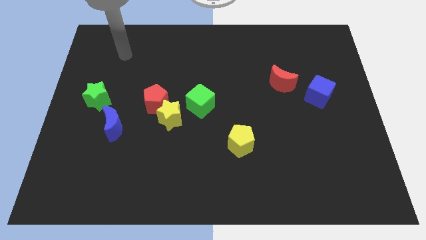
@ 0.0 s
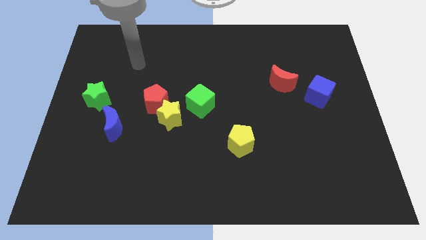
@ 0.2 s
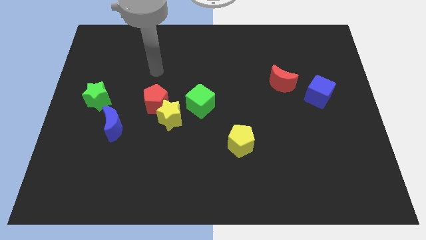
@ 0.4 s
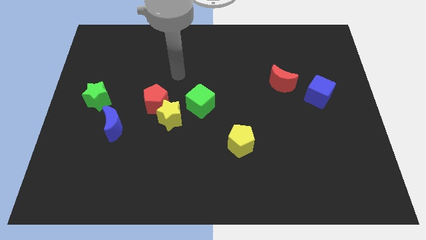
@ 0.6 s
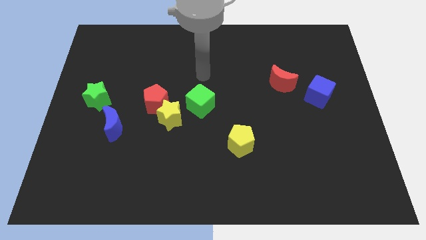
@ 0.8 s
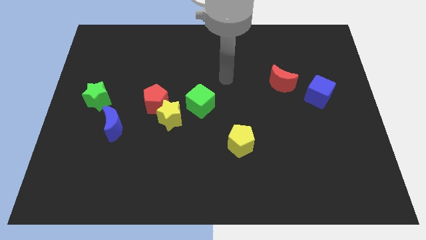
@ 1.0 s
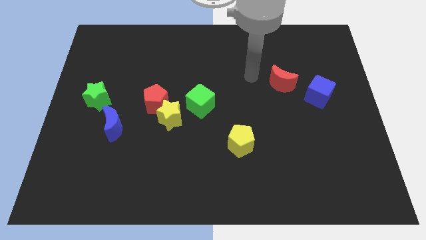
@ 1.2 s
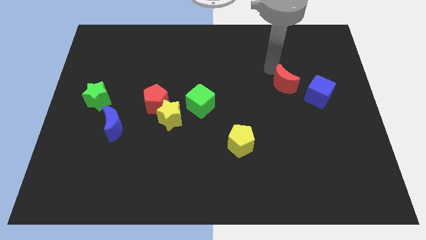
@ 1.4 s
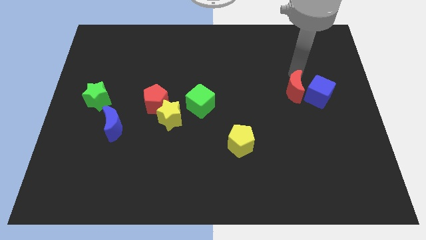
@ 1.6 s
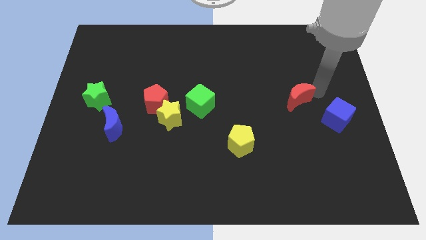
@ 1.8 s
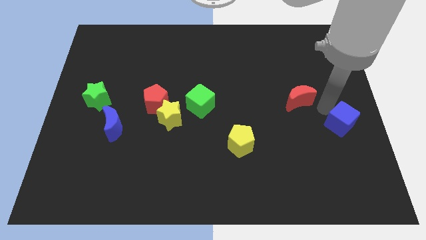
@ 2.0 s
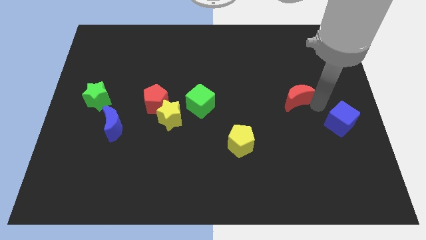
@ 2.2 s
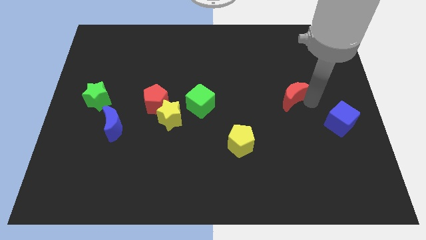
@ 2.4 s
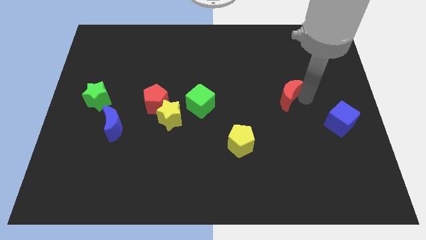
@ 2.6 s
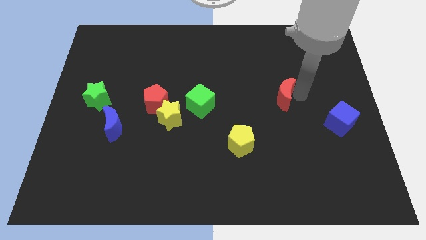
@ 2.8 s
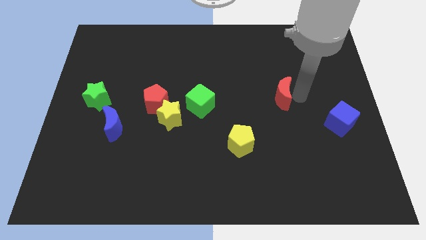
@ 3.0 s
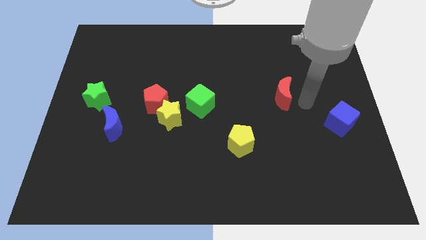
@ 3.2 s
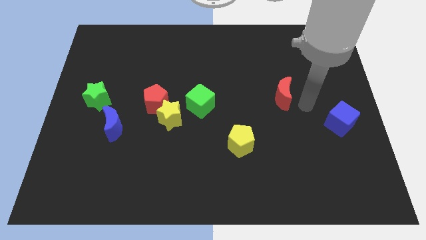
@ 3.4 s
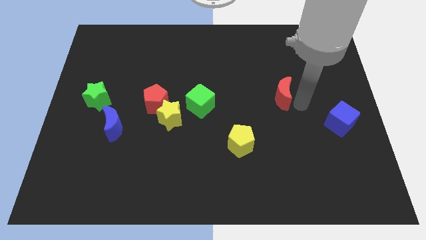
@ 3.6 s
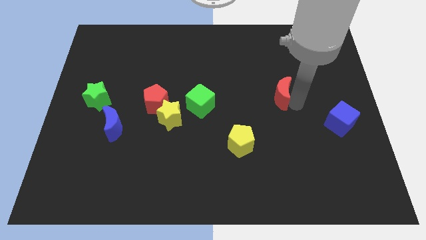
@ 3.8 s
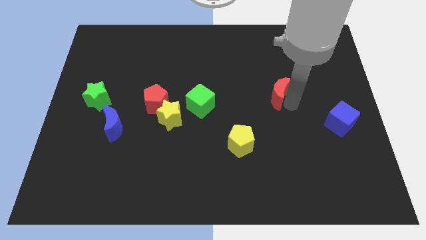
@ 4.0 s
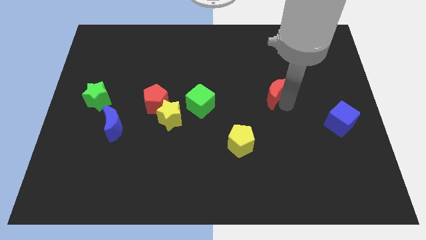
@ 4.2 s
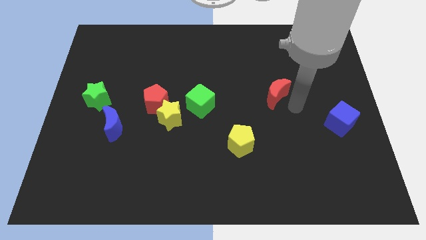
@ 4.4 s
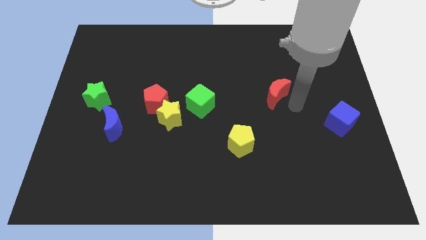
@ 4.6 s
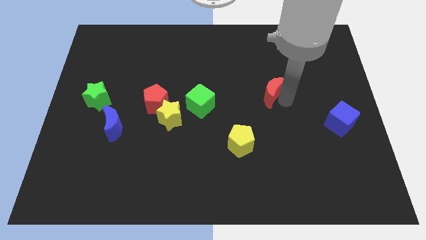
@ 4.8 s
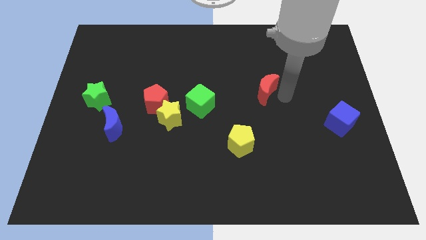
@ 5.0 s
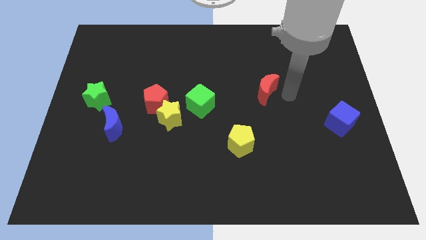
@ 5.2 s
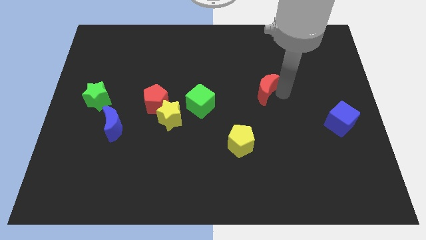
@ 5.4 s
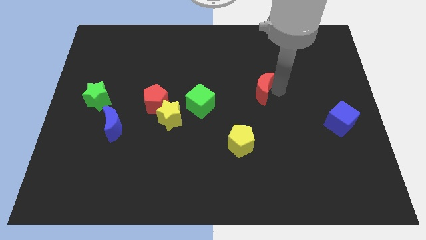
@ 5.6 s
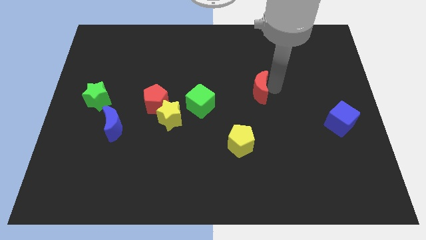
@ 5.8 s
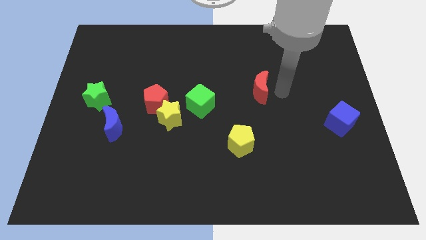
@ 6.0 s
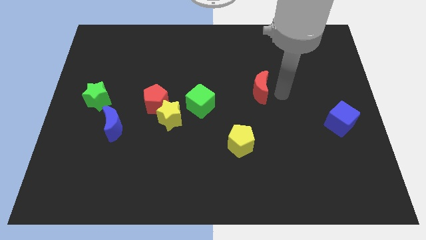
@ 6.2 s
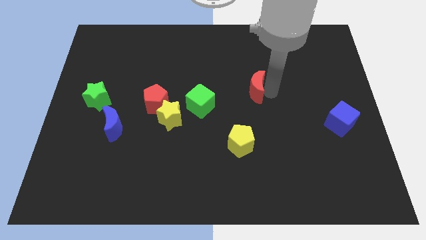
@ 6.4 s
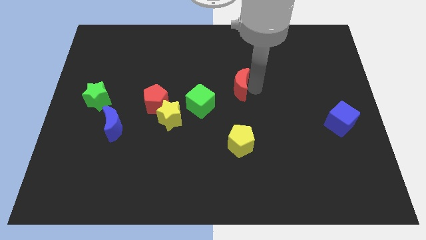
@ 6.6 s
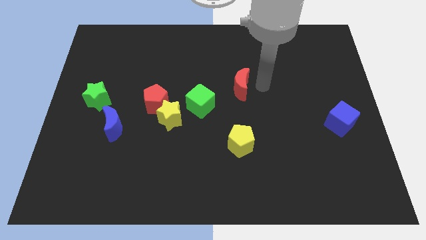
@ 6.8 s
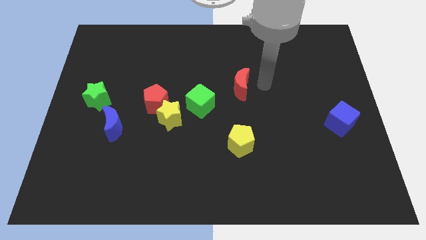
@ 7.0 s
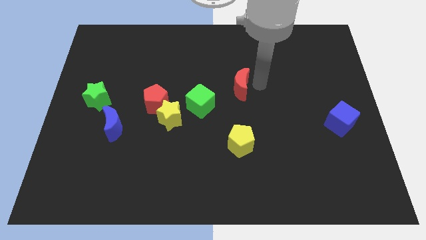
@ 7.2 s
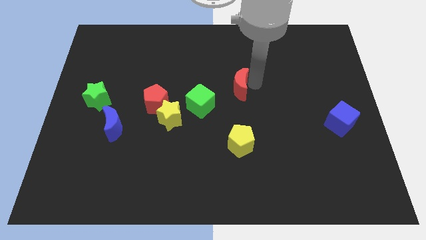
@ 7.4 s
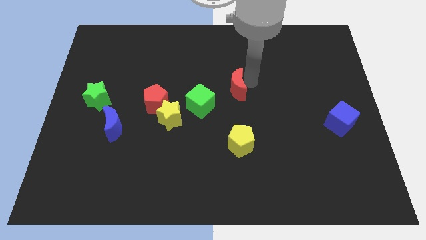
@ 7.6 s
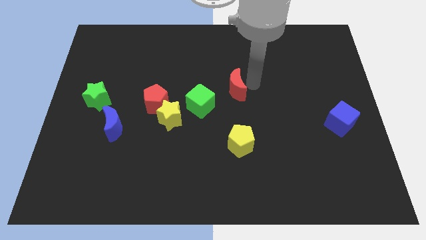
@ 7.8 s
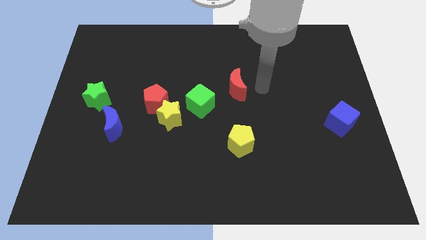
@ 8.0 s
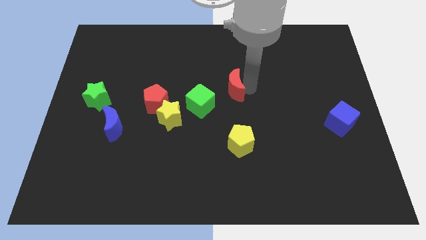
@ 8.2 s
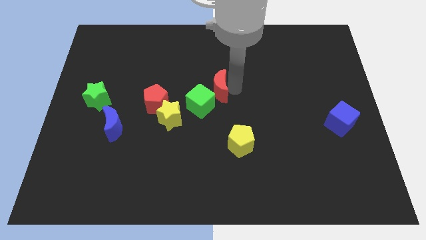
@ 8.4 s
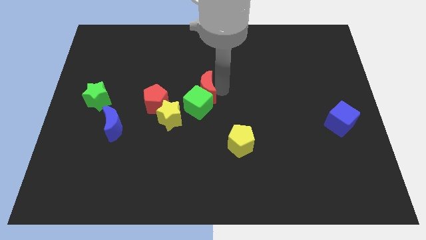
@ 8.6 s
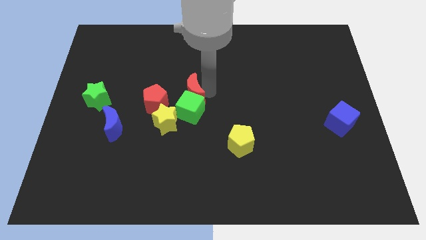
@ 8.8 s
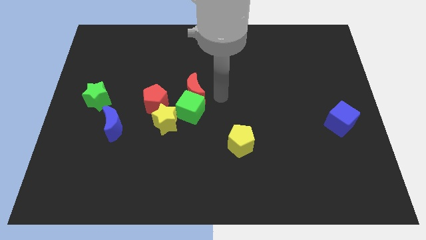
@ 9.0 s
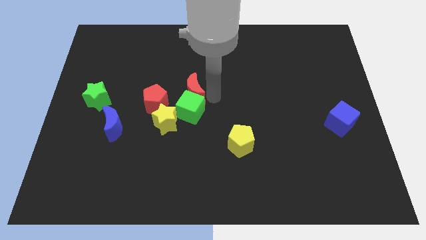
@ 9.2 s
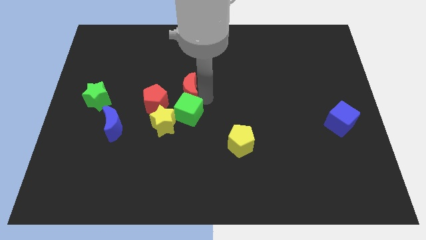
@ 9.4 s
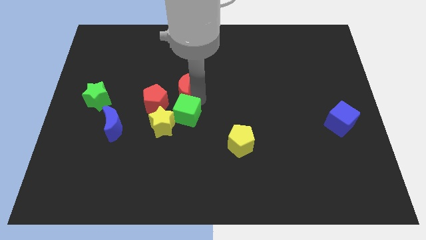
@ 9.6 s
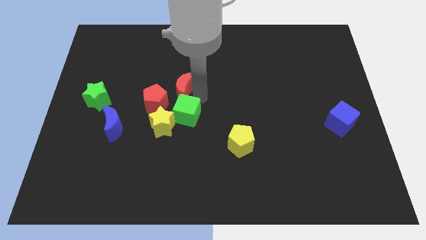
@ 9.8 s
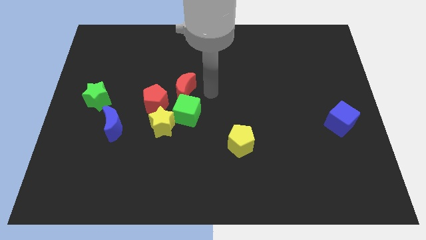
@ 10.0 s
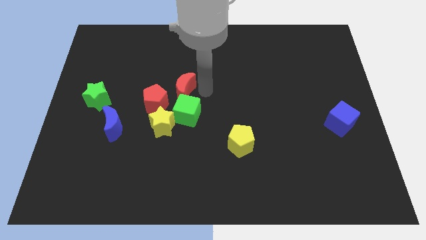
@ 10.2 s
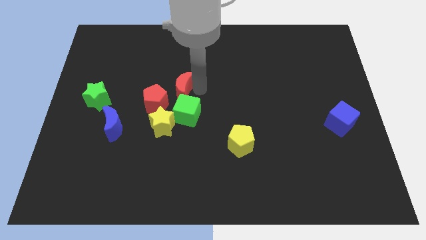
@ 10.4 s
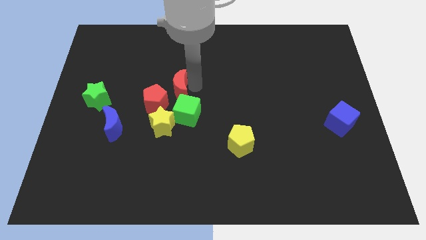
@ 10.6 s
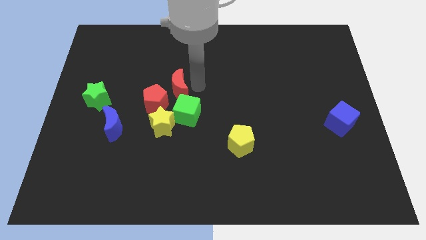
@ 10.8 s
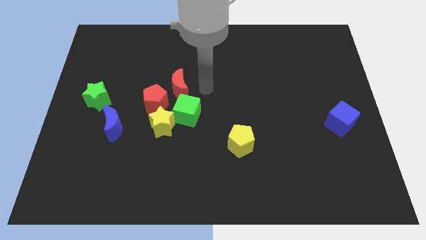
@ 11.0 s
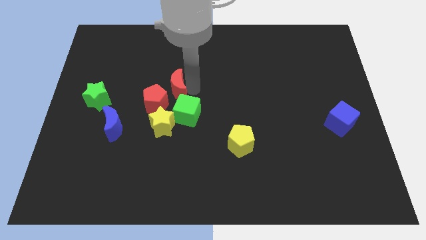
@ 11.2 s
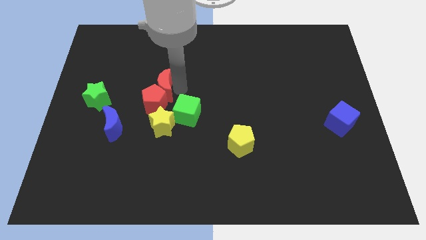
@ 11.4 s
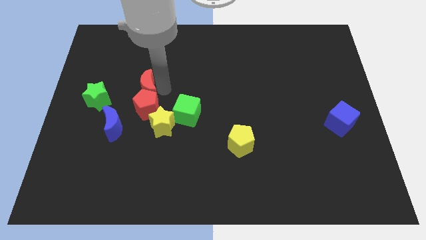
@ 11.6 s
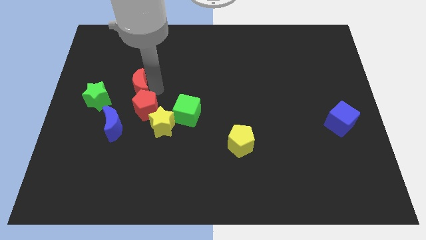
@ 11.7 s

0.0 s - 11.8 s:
put the red moon to the top side of the blue moon
